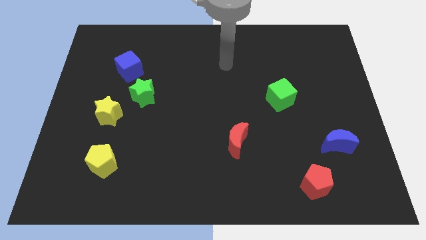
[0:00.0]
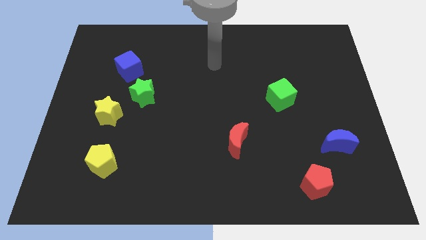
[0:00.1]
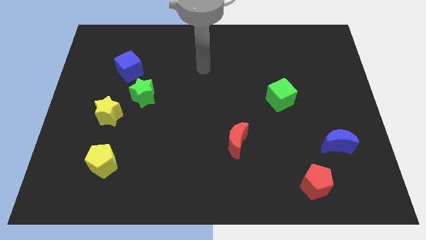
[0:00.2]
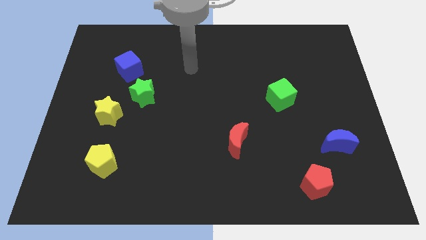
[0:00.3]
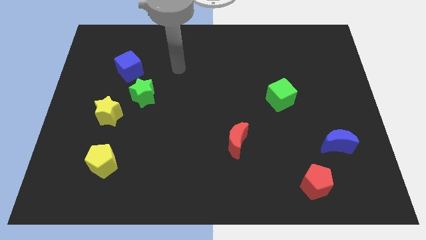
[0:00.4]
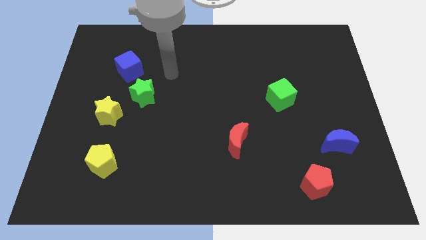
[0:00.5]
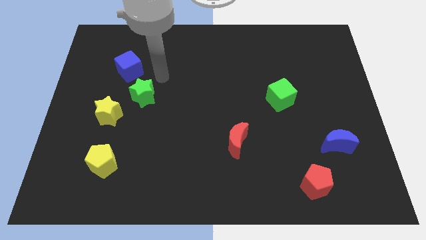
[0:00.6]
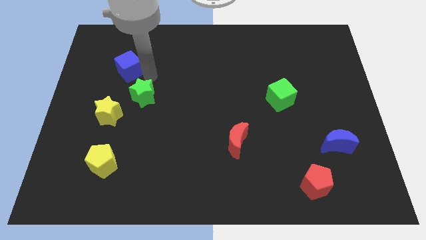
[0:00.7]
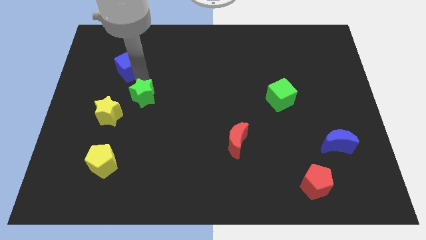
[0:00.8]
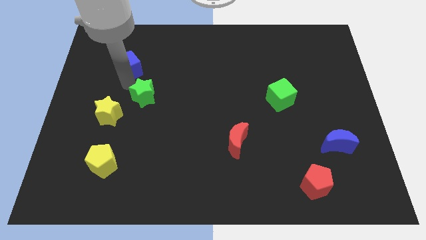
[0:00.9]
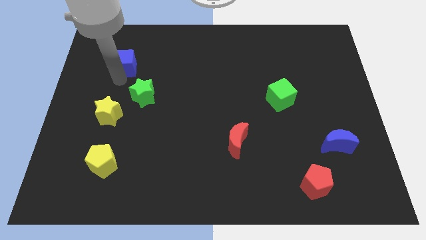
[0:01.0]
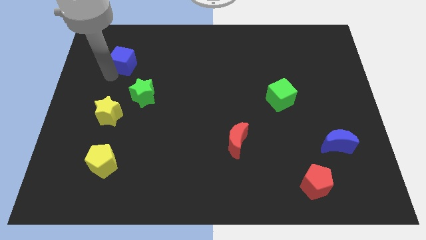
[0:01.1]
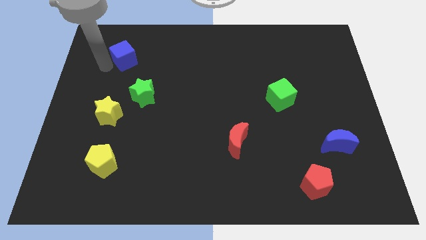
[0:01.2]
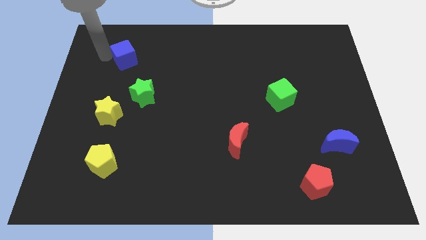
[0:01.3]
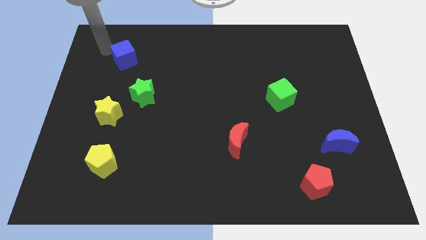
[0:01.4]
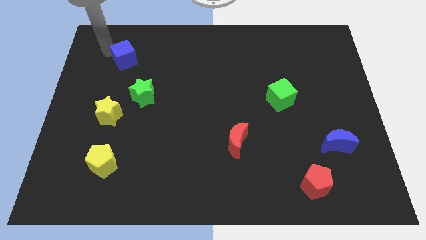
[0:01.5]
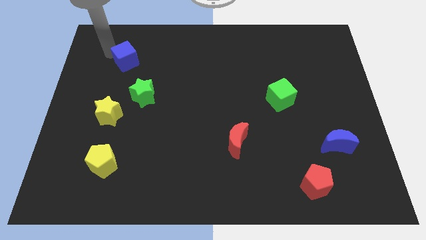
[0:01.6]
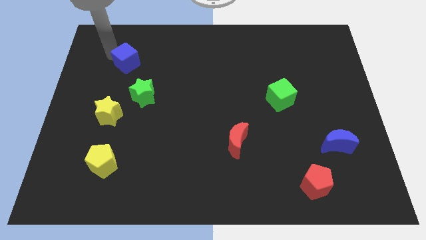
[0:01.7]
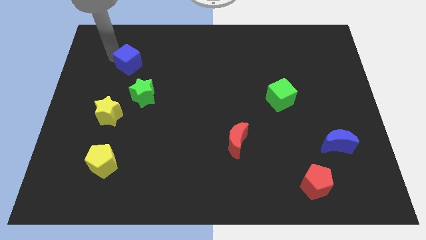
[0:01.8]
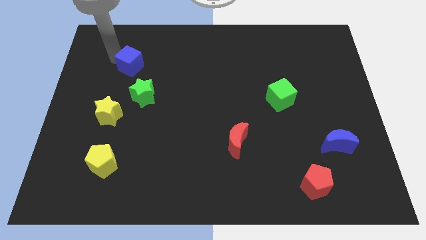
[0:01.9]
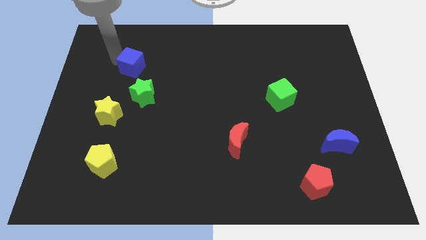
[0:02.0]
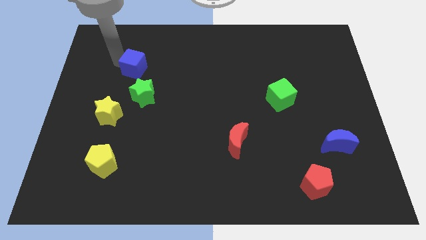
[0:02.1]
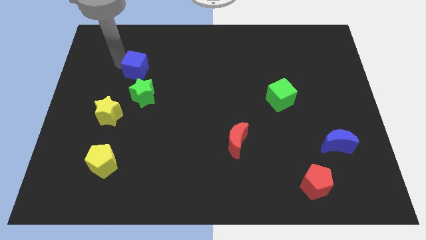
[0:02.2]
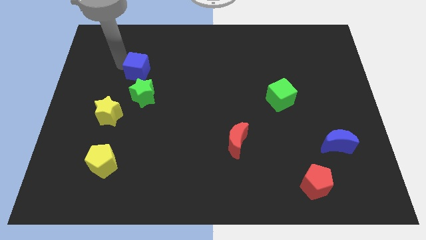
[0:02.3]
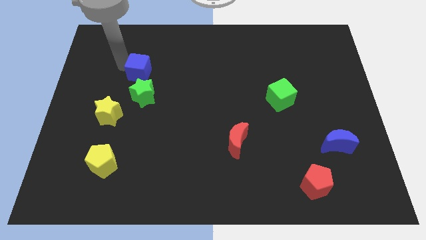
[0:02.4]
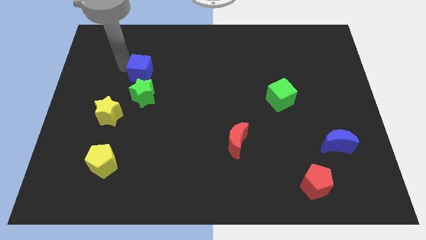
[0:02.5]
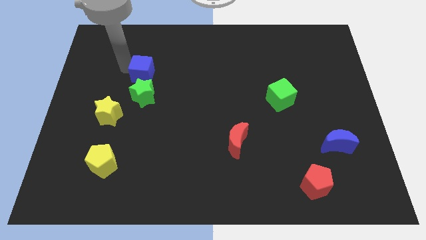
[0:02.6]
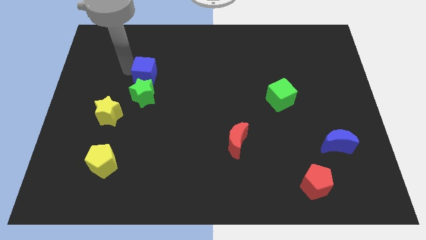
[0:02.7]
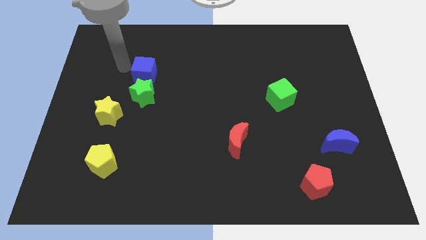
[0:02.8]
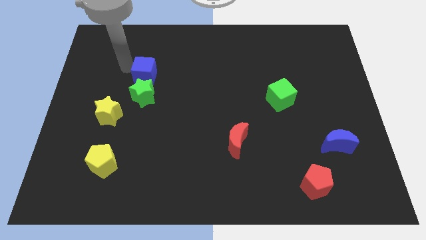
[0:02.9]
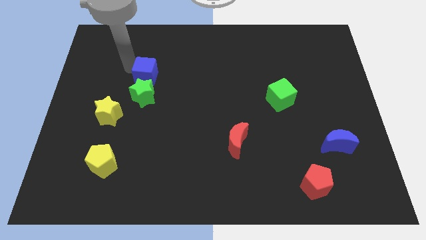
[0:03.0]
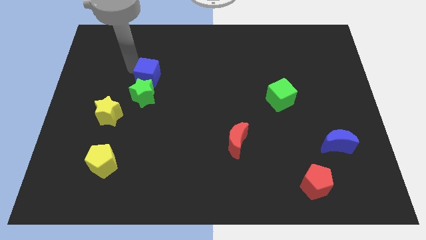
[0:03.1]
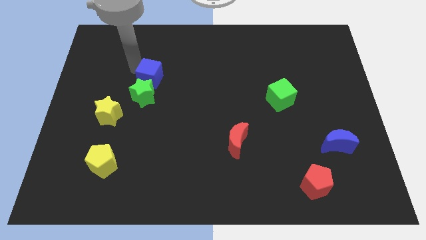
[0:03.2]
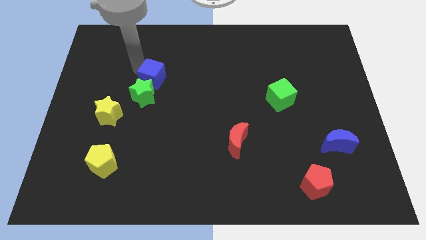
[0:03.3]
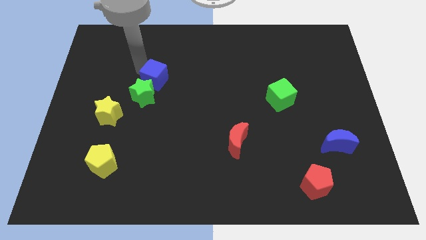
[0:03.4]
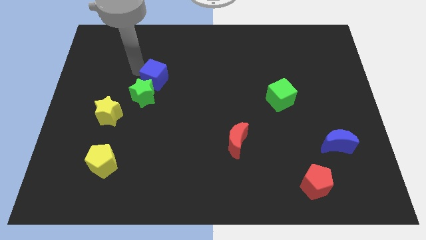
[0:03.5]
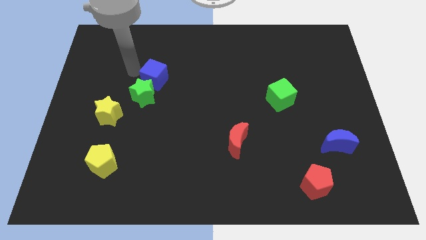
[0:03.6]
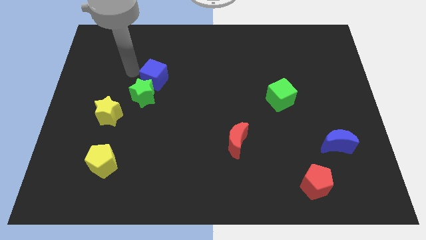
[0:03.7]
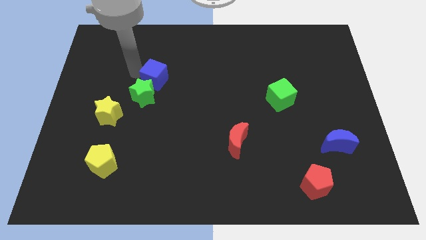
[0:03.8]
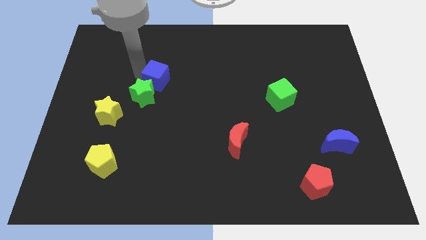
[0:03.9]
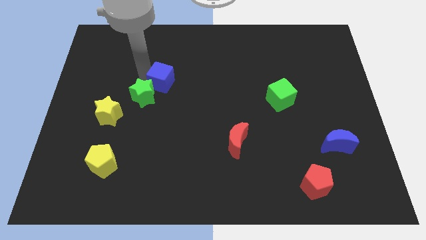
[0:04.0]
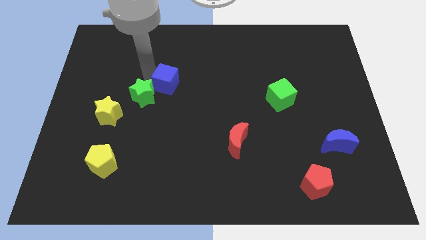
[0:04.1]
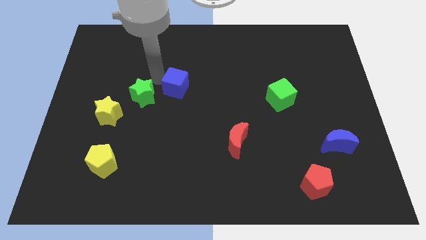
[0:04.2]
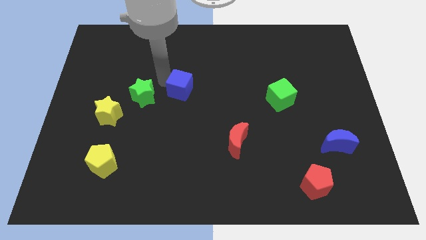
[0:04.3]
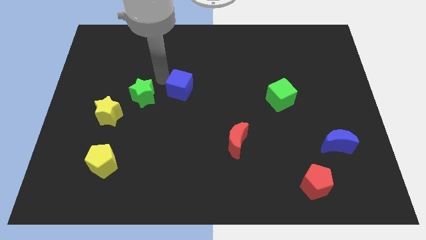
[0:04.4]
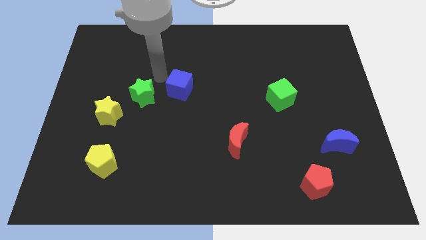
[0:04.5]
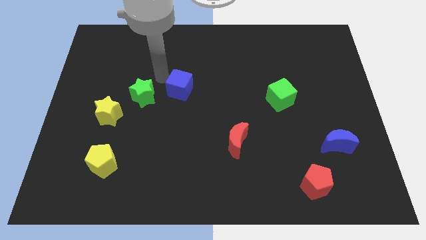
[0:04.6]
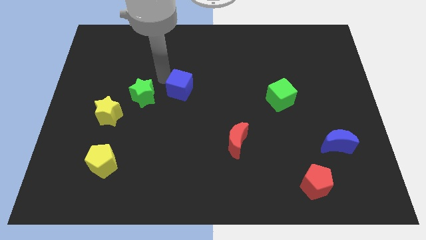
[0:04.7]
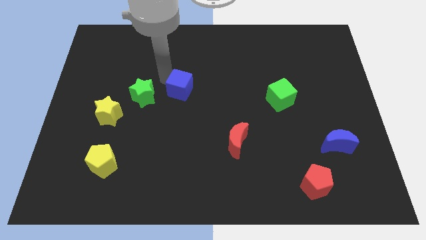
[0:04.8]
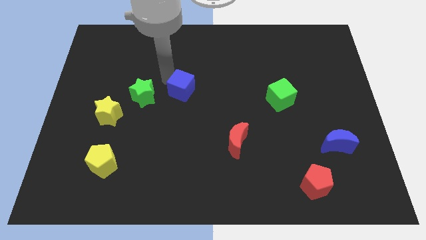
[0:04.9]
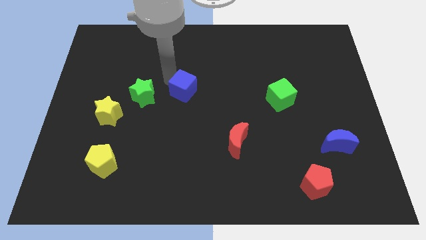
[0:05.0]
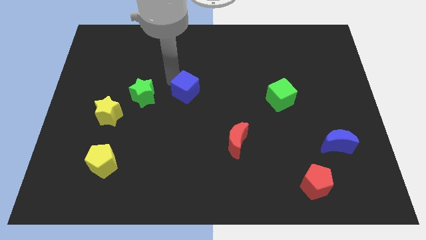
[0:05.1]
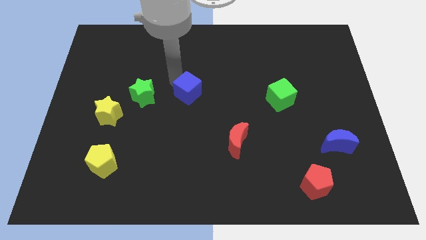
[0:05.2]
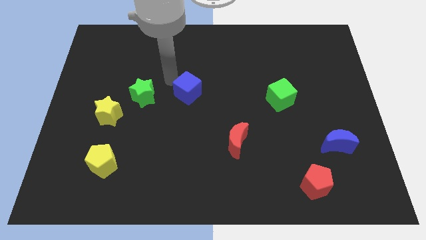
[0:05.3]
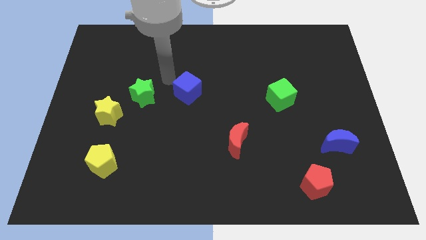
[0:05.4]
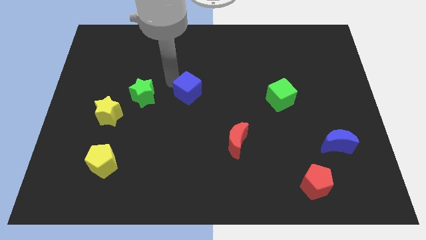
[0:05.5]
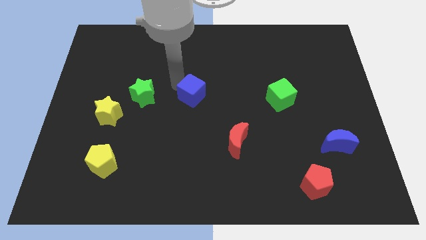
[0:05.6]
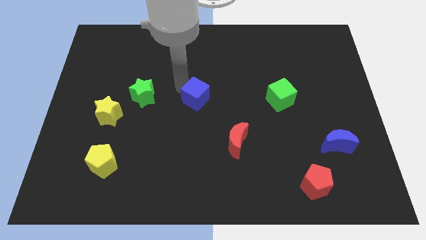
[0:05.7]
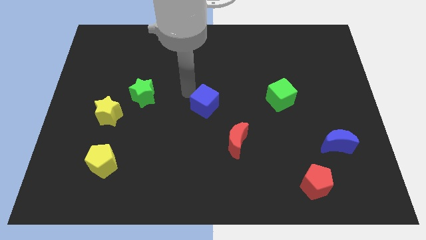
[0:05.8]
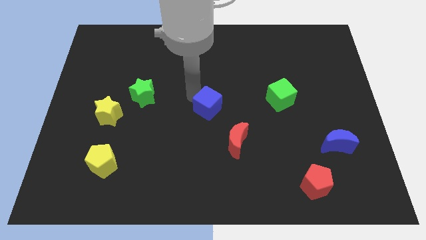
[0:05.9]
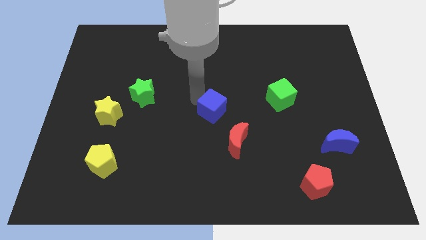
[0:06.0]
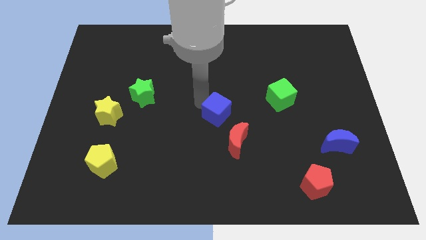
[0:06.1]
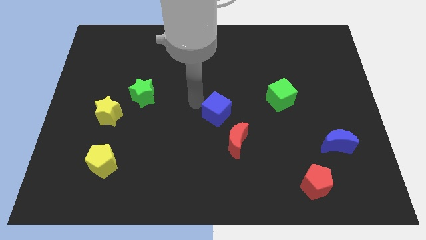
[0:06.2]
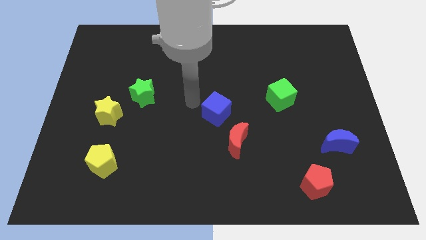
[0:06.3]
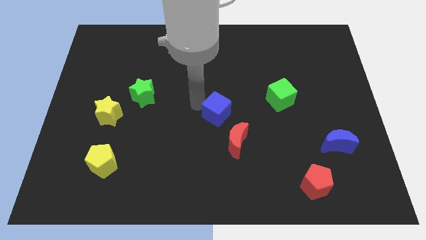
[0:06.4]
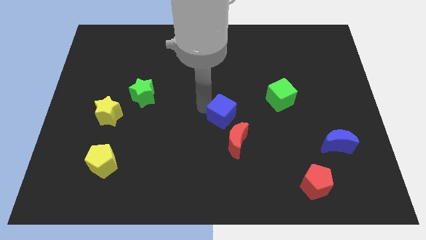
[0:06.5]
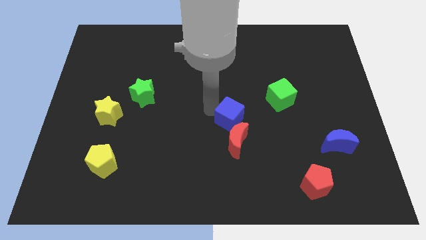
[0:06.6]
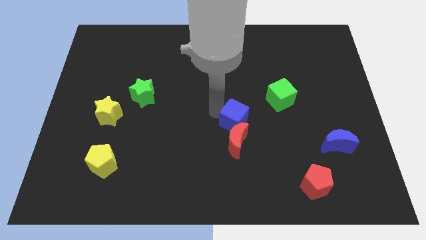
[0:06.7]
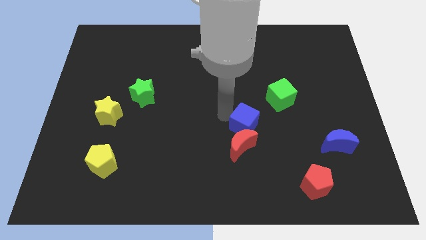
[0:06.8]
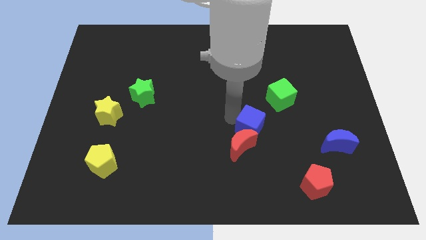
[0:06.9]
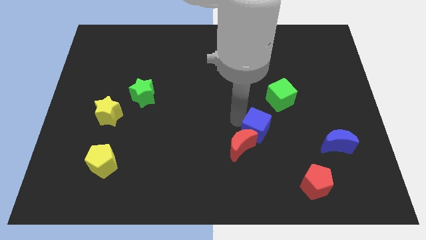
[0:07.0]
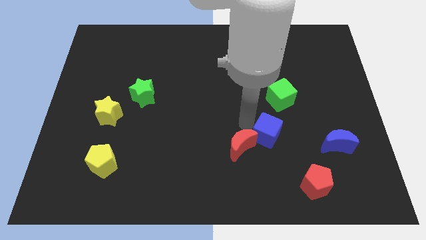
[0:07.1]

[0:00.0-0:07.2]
slide the blue cube just left of the blue moon

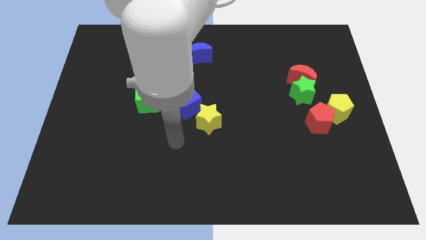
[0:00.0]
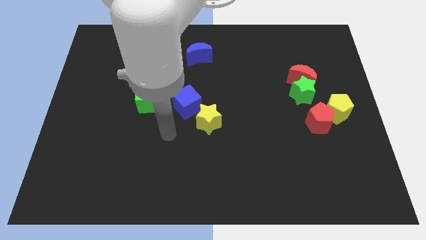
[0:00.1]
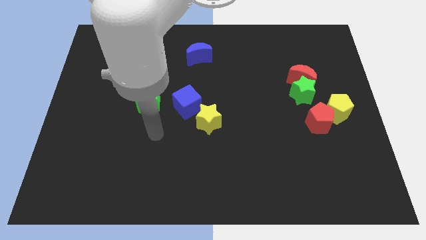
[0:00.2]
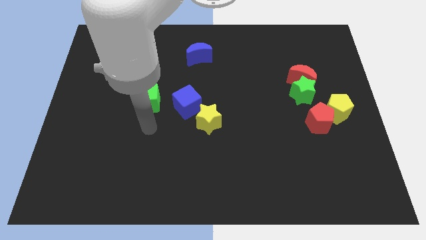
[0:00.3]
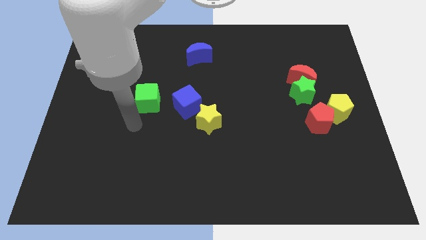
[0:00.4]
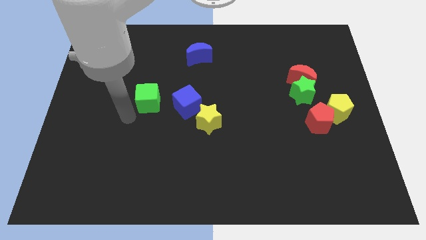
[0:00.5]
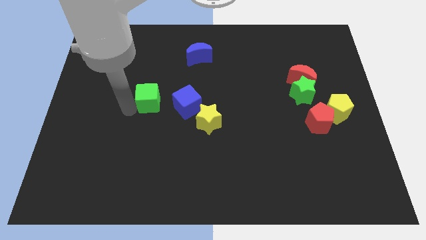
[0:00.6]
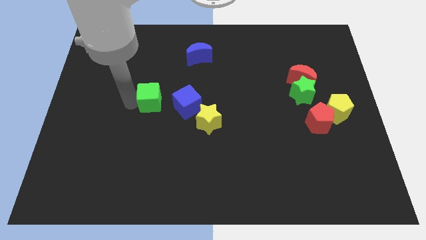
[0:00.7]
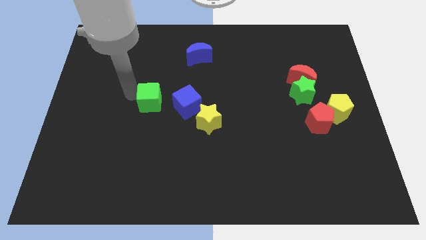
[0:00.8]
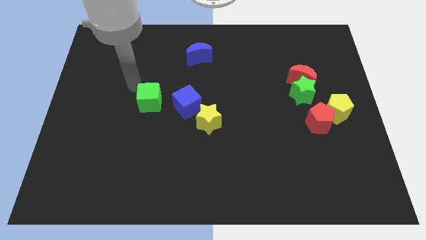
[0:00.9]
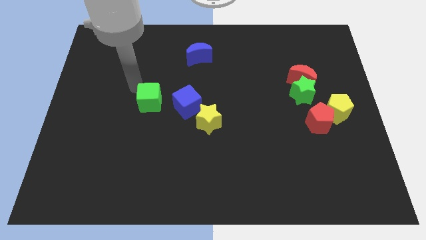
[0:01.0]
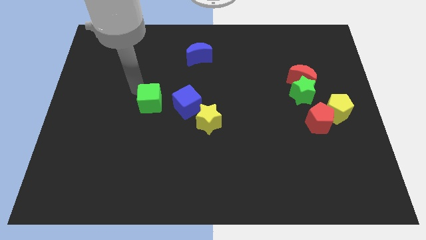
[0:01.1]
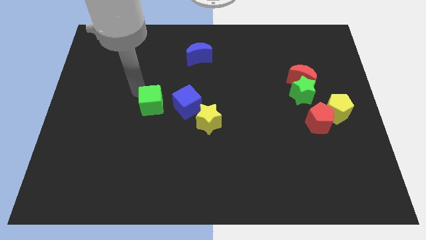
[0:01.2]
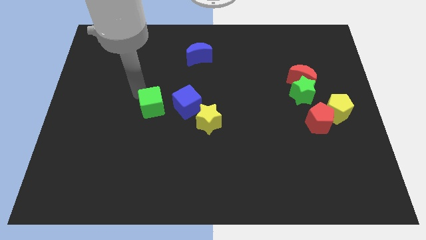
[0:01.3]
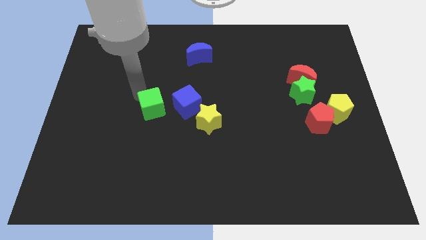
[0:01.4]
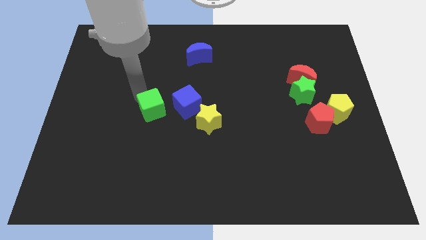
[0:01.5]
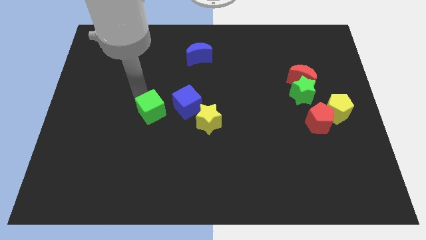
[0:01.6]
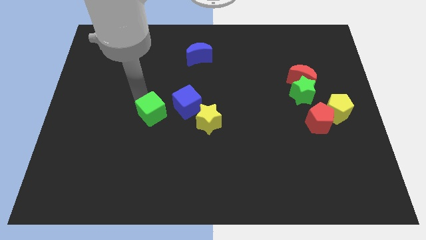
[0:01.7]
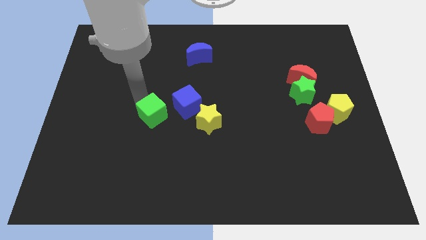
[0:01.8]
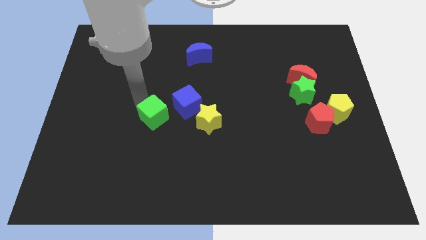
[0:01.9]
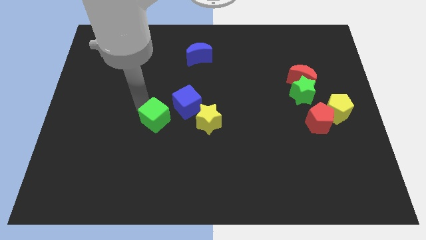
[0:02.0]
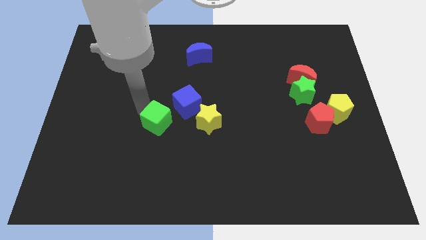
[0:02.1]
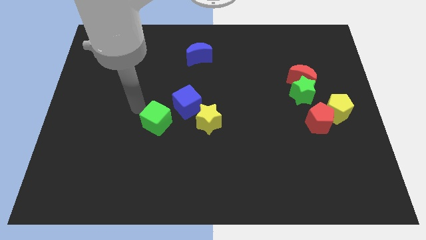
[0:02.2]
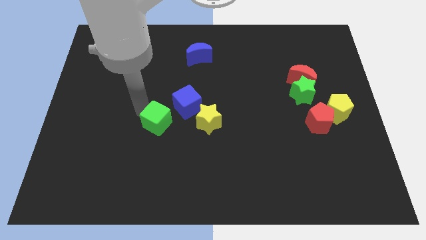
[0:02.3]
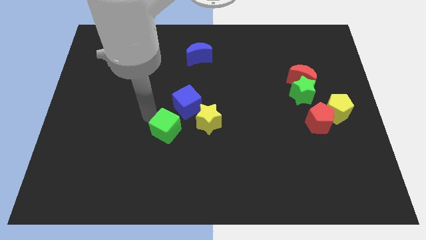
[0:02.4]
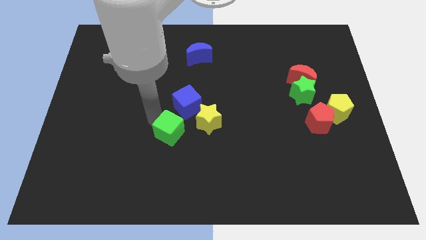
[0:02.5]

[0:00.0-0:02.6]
put the green cube to the bottom left of the yellow star
